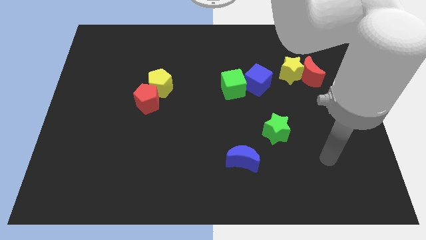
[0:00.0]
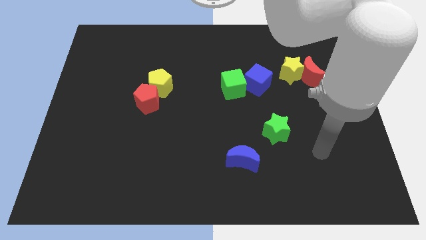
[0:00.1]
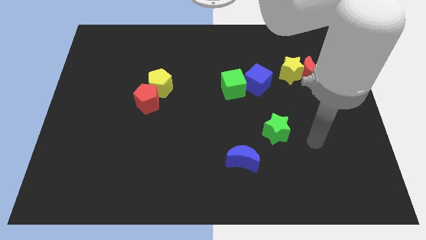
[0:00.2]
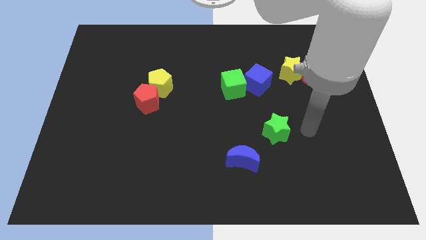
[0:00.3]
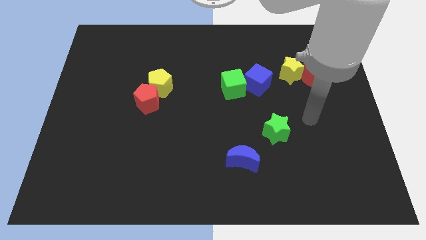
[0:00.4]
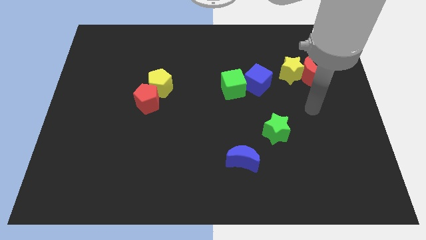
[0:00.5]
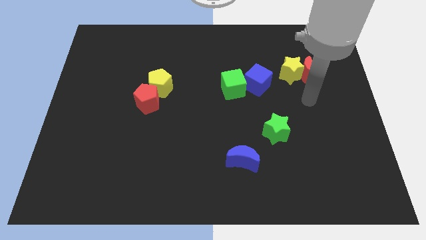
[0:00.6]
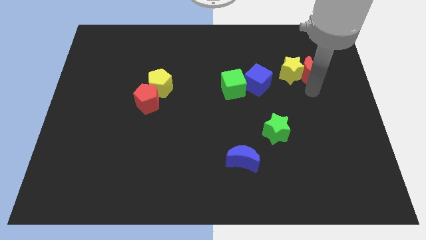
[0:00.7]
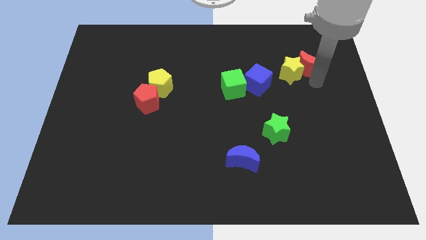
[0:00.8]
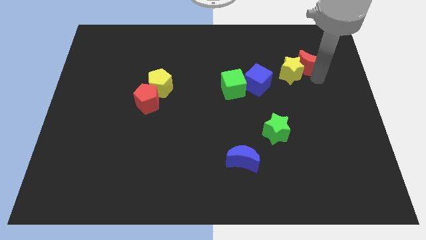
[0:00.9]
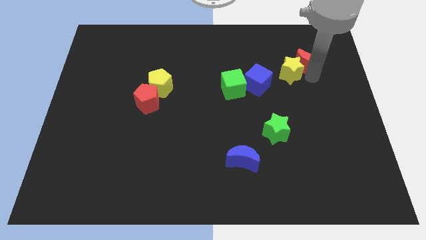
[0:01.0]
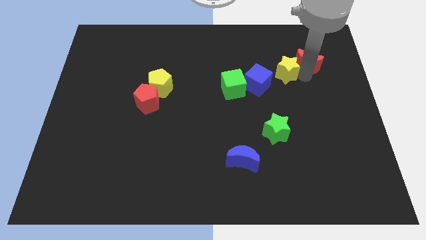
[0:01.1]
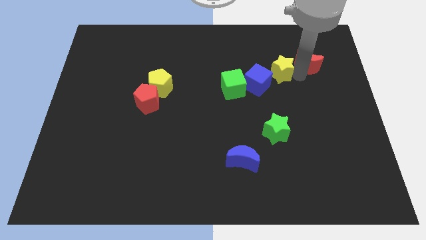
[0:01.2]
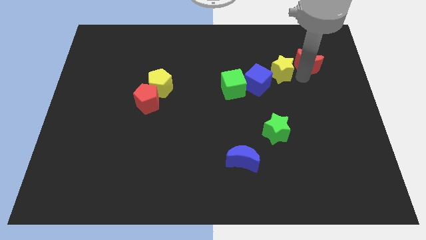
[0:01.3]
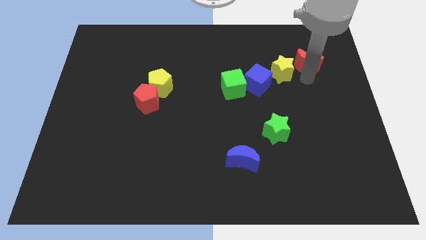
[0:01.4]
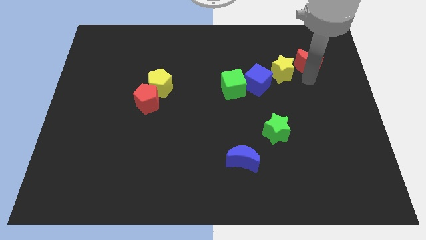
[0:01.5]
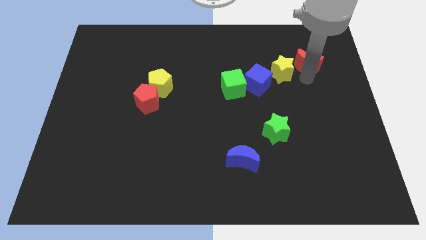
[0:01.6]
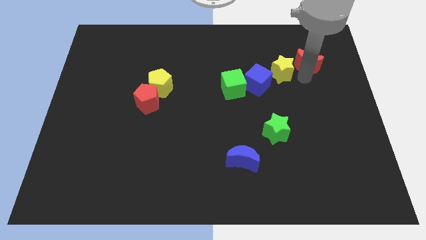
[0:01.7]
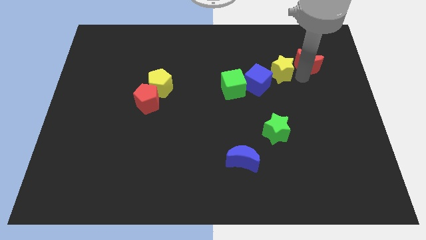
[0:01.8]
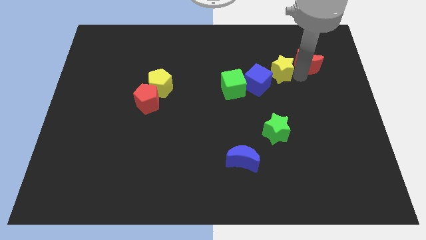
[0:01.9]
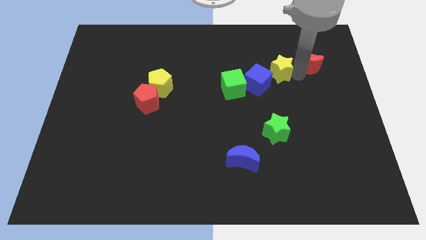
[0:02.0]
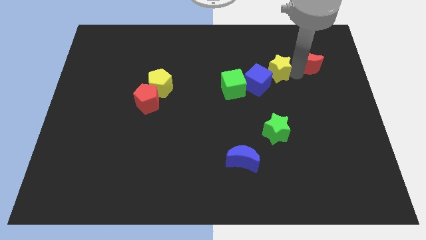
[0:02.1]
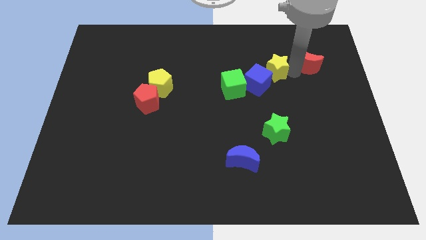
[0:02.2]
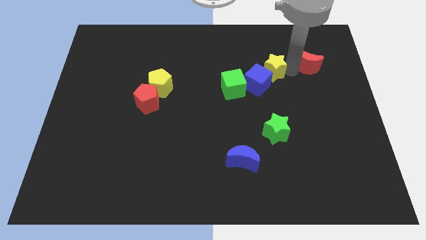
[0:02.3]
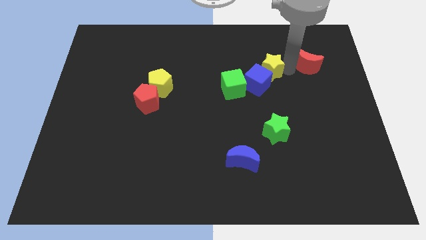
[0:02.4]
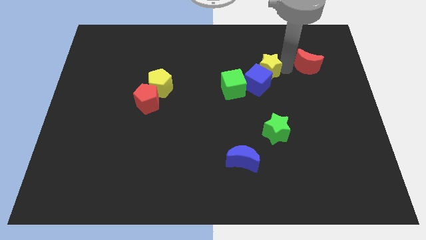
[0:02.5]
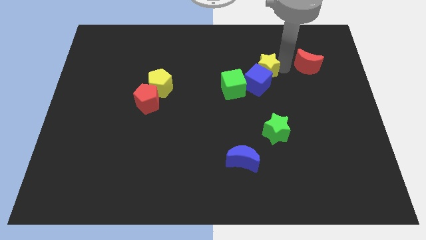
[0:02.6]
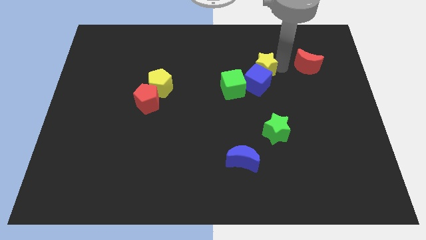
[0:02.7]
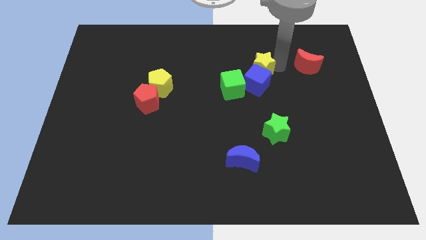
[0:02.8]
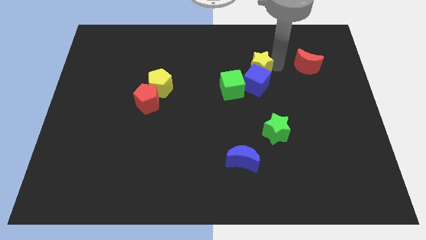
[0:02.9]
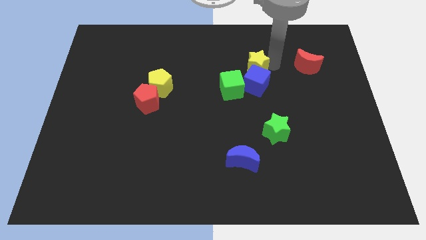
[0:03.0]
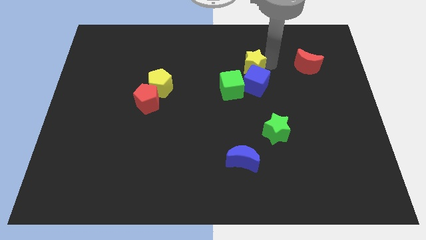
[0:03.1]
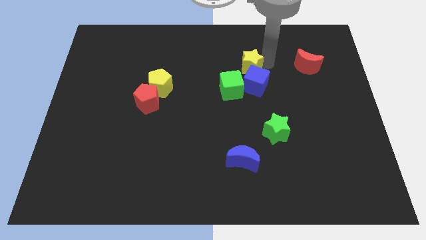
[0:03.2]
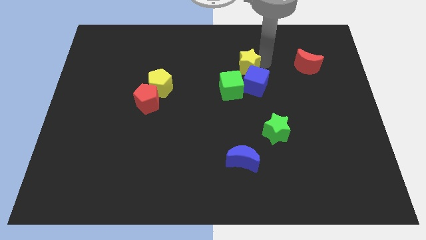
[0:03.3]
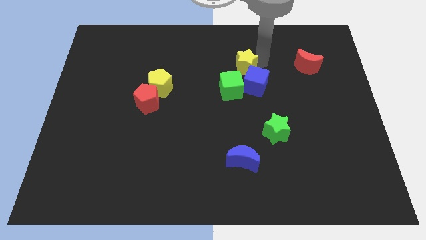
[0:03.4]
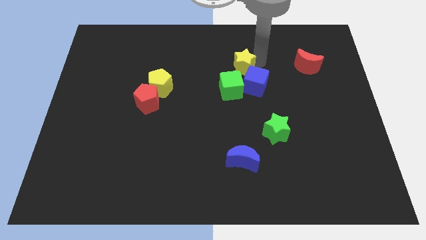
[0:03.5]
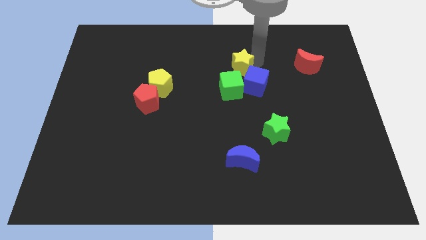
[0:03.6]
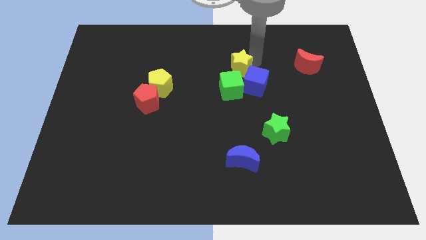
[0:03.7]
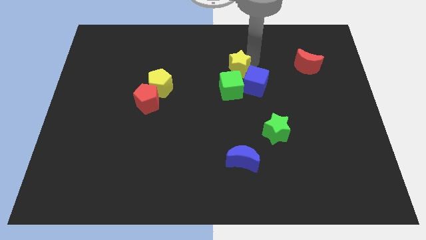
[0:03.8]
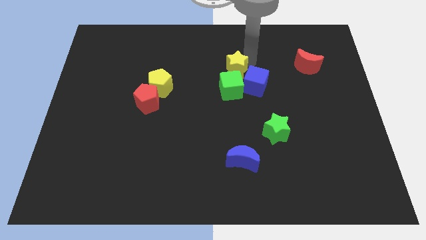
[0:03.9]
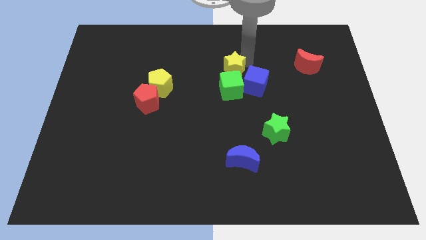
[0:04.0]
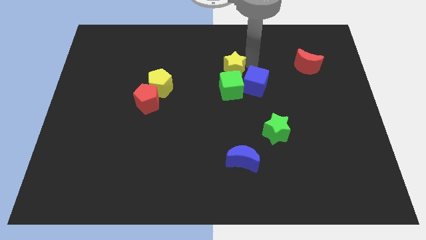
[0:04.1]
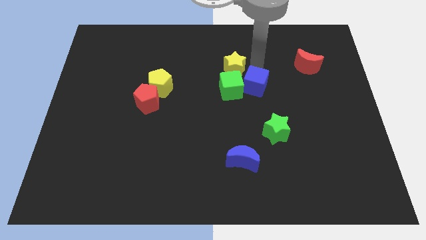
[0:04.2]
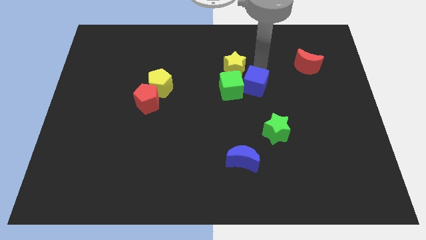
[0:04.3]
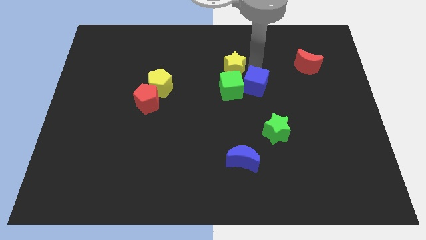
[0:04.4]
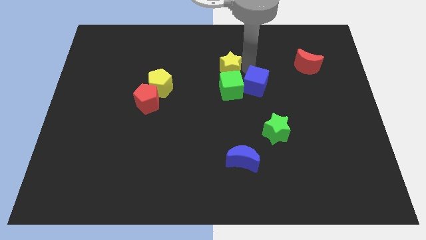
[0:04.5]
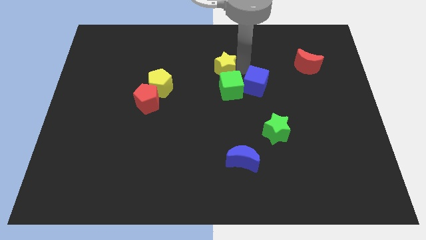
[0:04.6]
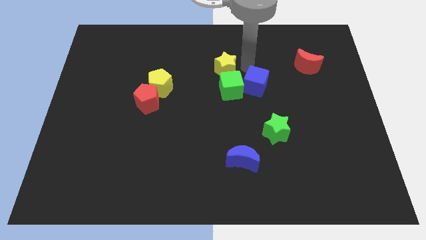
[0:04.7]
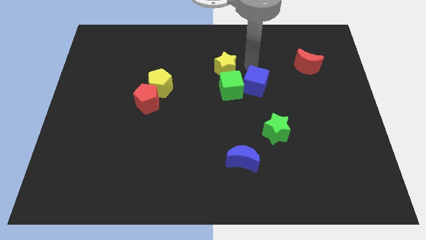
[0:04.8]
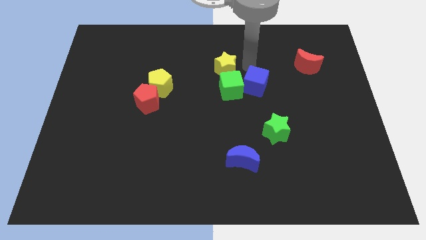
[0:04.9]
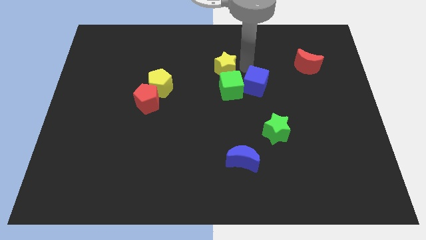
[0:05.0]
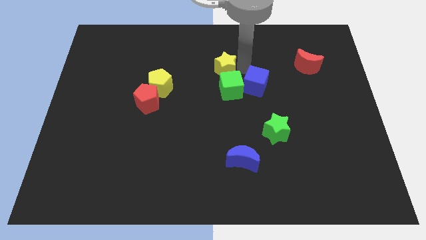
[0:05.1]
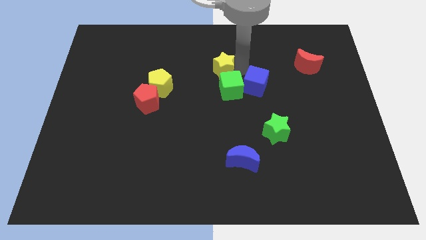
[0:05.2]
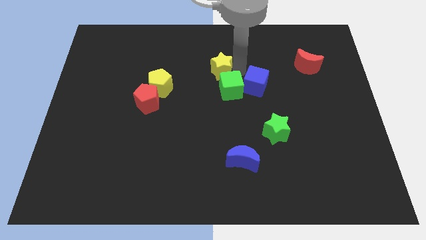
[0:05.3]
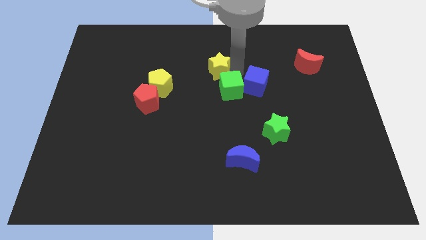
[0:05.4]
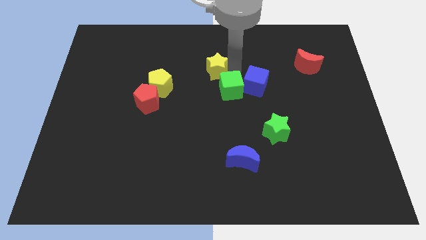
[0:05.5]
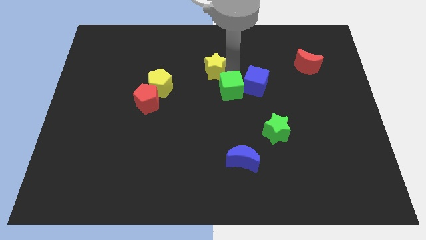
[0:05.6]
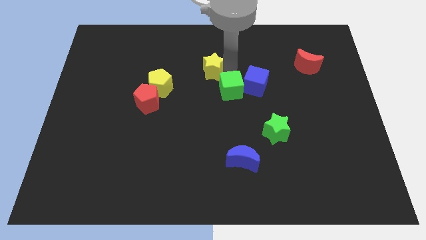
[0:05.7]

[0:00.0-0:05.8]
push the yellow star to the left

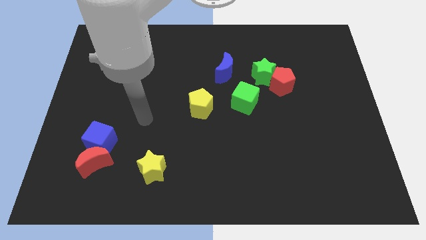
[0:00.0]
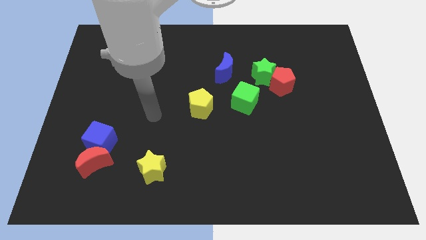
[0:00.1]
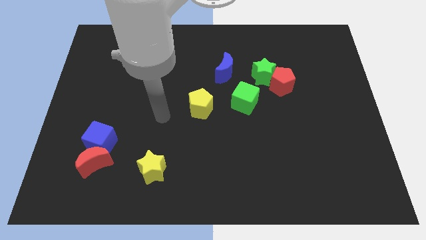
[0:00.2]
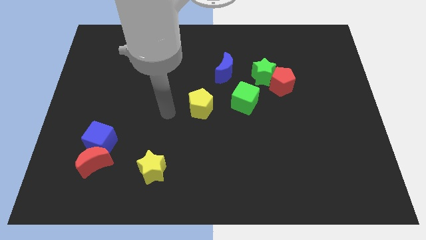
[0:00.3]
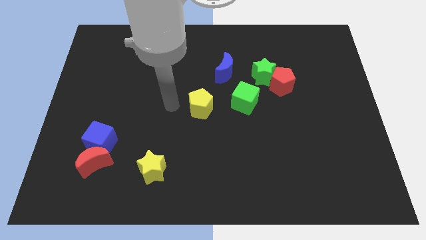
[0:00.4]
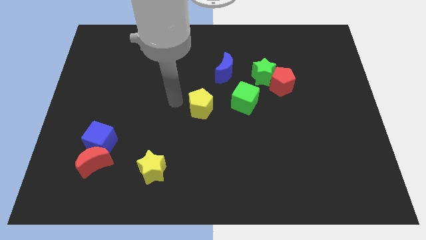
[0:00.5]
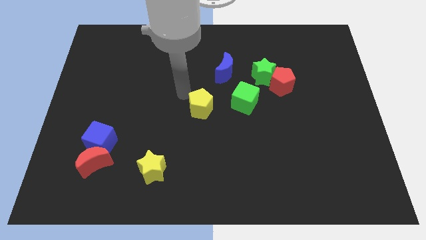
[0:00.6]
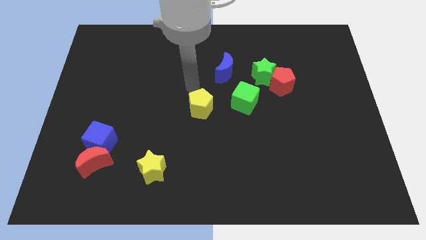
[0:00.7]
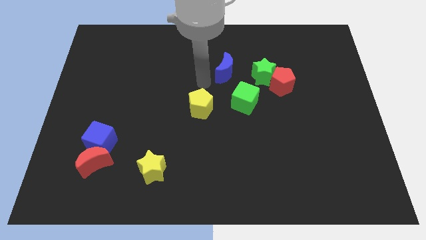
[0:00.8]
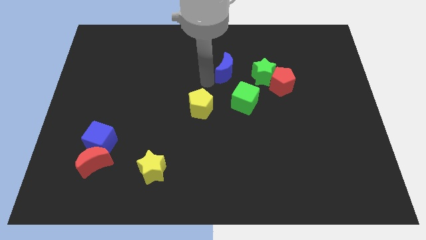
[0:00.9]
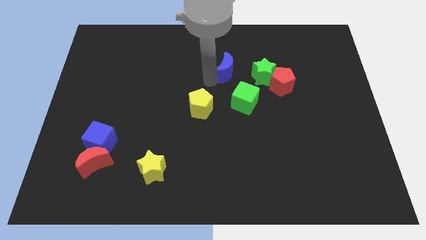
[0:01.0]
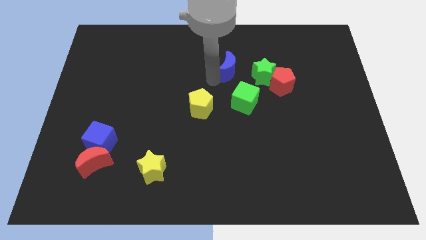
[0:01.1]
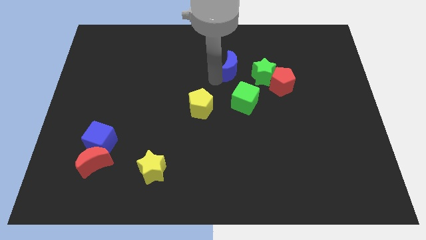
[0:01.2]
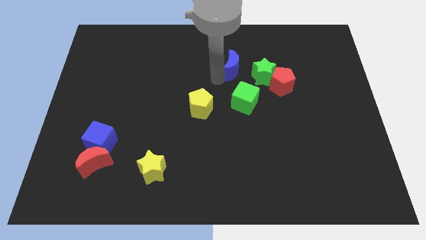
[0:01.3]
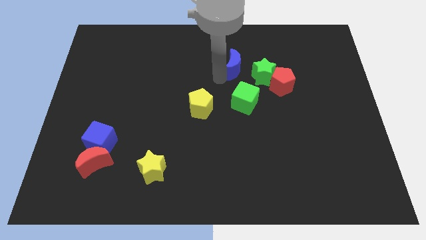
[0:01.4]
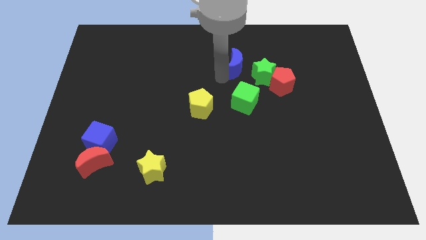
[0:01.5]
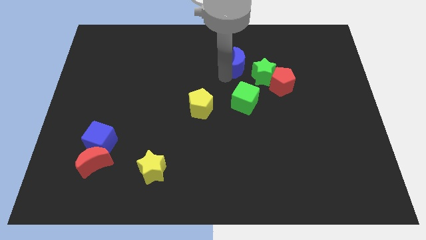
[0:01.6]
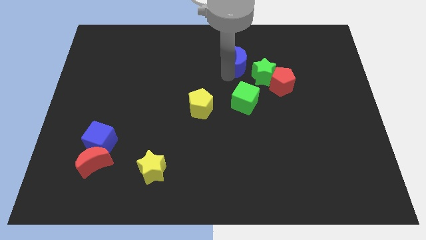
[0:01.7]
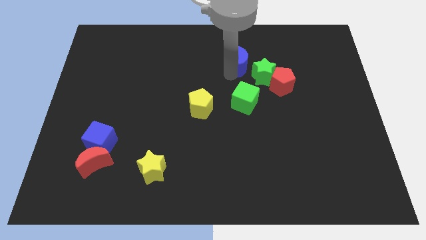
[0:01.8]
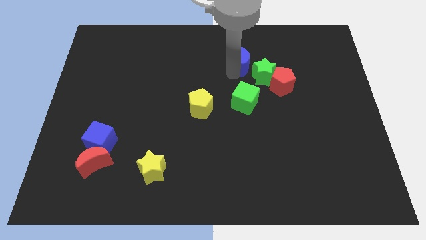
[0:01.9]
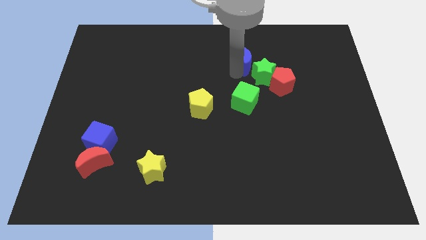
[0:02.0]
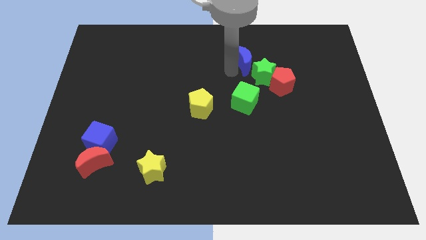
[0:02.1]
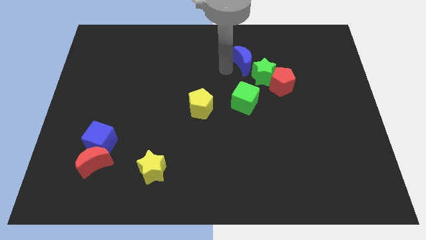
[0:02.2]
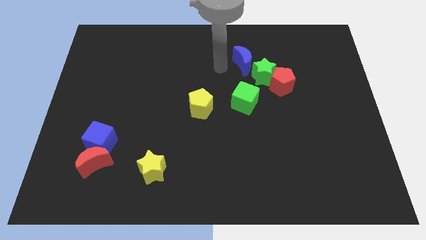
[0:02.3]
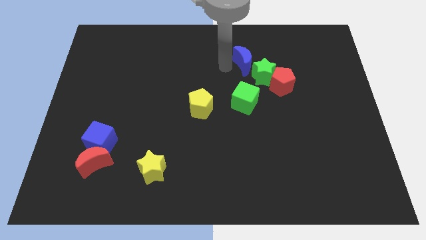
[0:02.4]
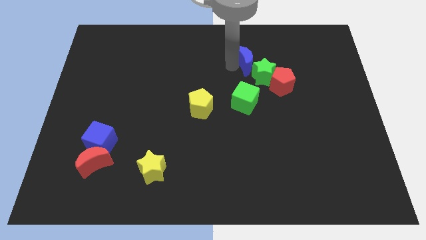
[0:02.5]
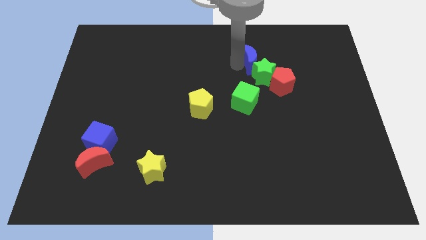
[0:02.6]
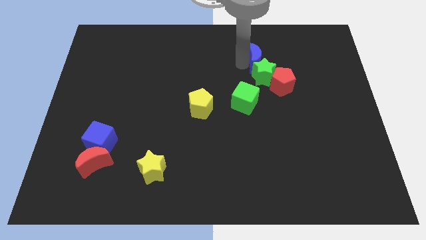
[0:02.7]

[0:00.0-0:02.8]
slightly push the blue moon right
